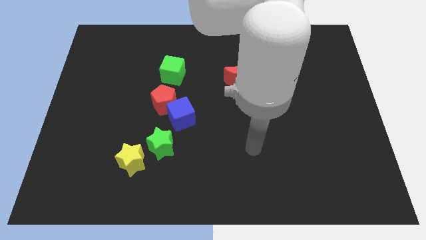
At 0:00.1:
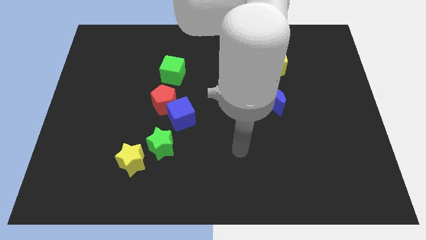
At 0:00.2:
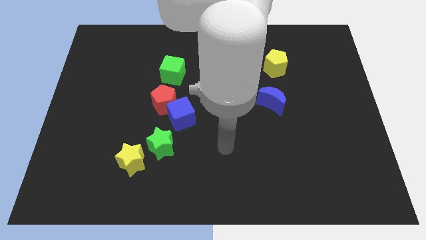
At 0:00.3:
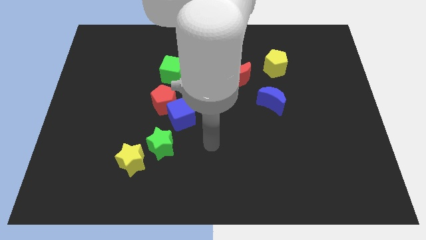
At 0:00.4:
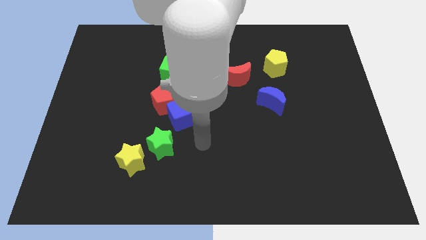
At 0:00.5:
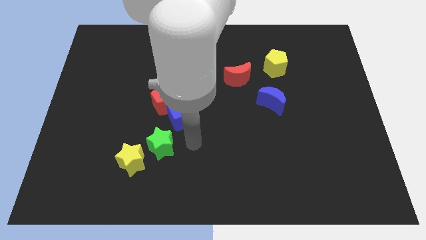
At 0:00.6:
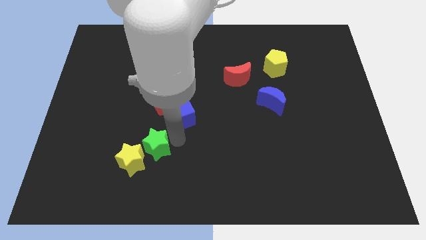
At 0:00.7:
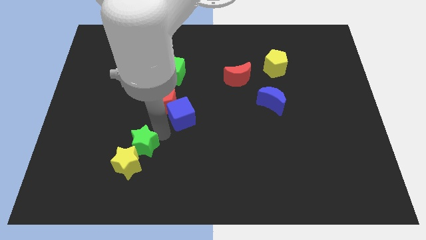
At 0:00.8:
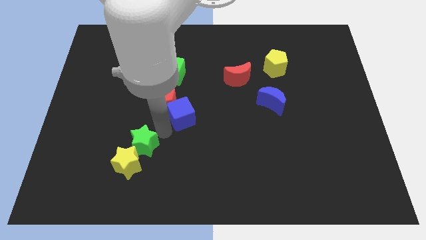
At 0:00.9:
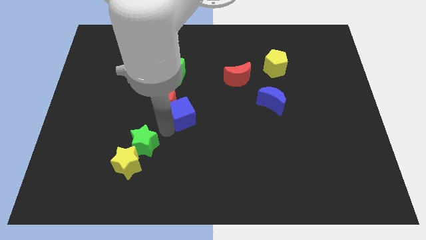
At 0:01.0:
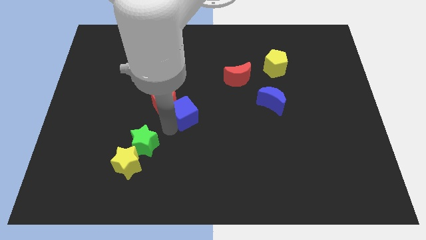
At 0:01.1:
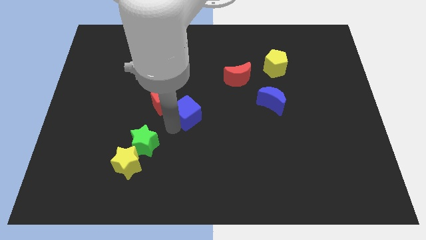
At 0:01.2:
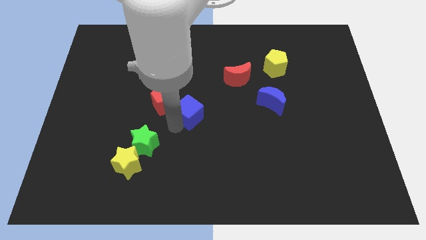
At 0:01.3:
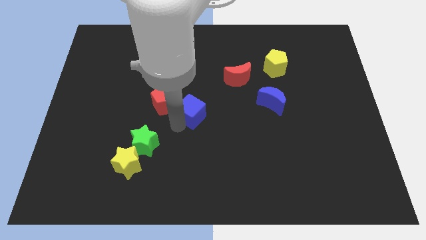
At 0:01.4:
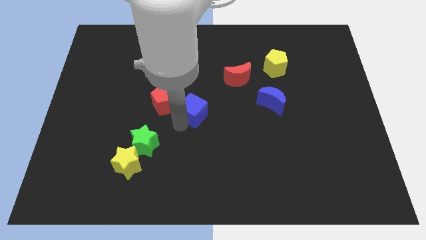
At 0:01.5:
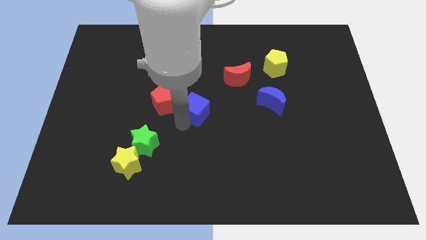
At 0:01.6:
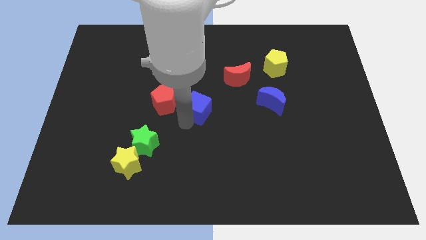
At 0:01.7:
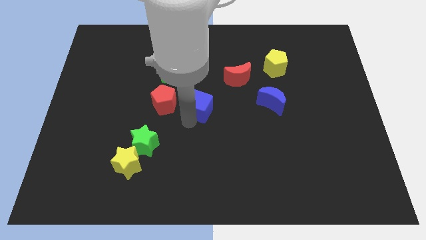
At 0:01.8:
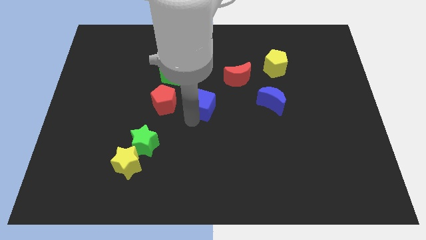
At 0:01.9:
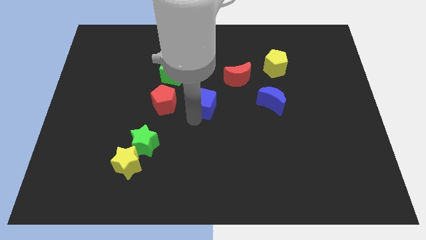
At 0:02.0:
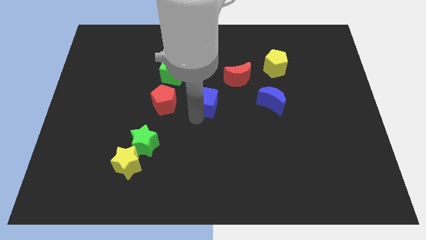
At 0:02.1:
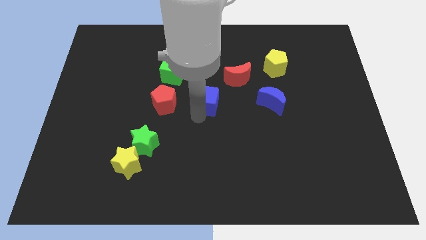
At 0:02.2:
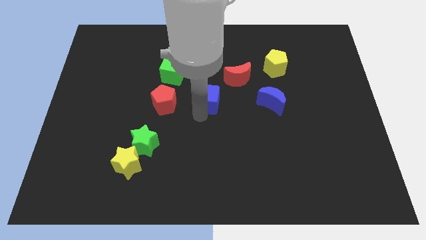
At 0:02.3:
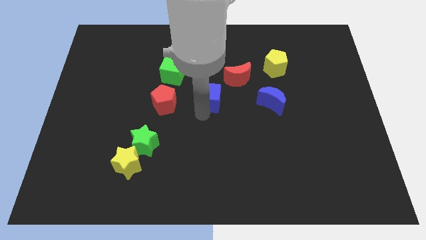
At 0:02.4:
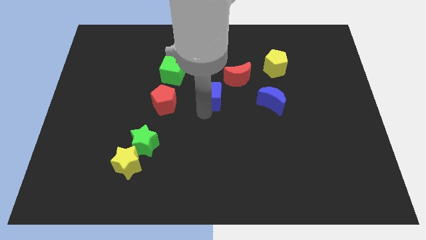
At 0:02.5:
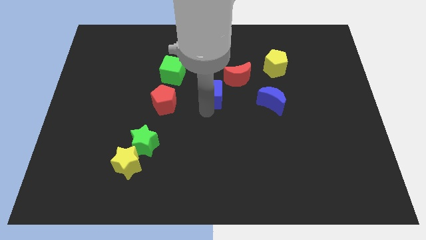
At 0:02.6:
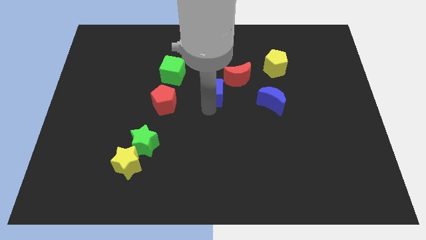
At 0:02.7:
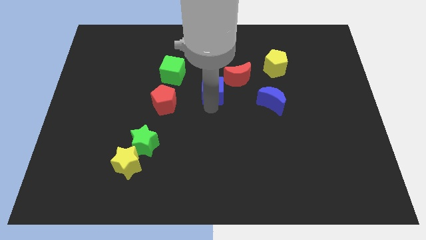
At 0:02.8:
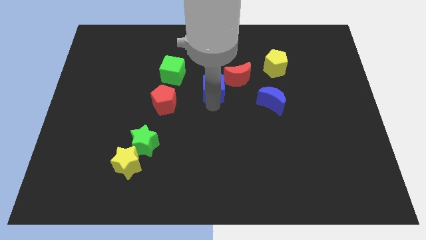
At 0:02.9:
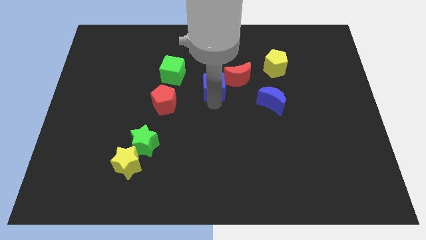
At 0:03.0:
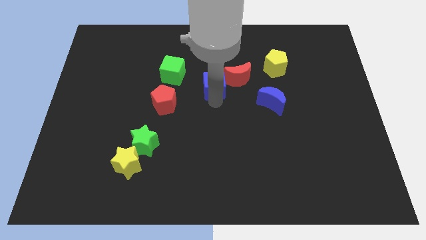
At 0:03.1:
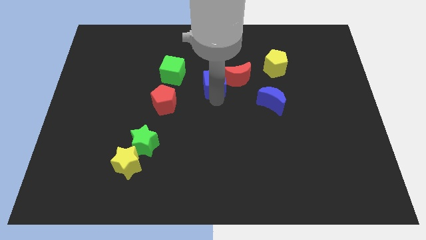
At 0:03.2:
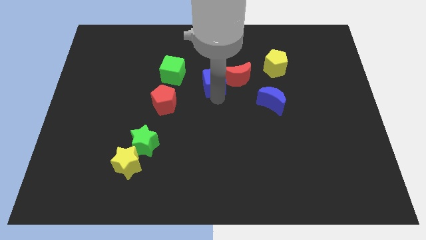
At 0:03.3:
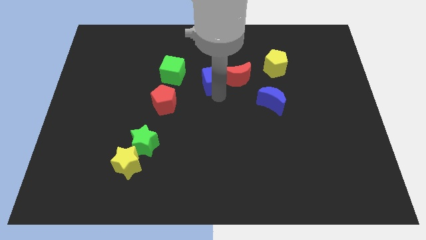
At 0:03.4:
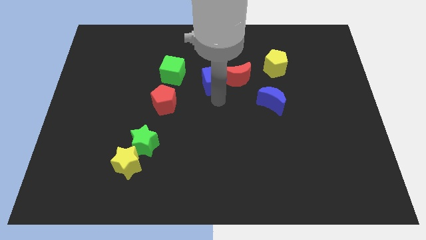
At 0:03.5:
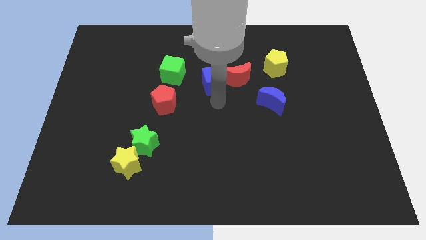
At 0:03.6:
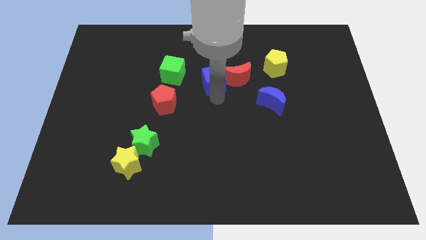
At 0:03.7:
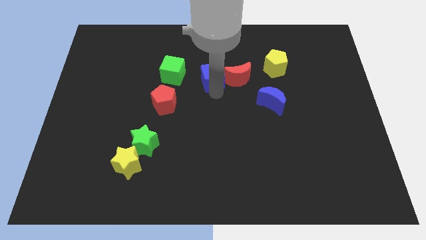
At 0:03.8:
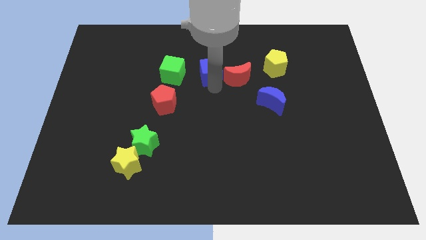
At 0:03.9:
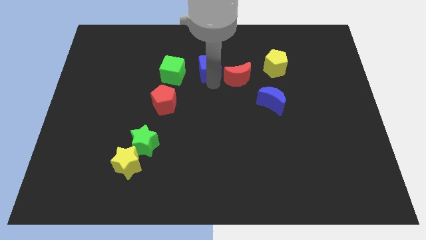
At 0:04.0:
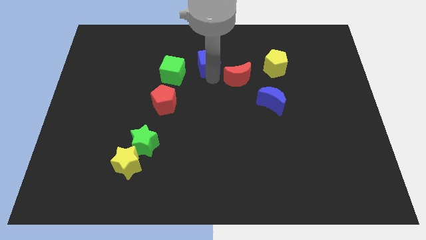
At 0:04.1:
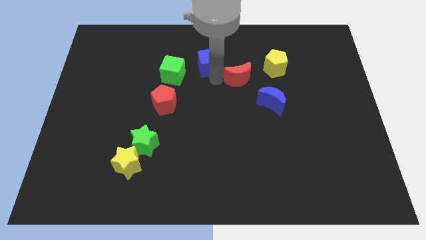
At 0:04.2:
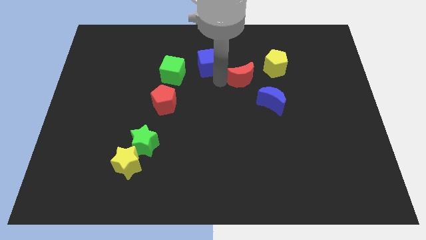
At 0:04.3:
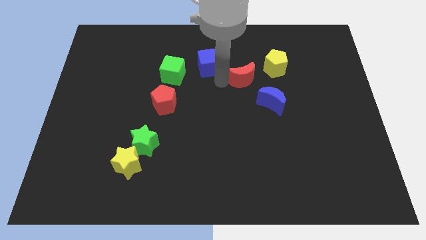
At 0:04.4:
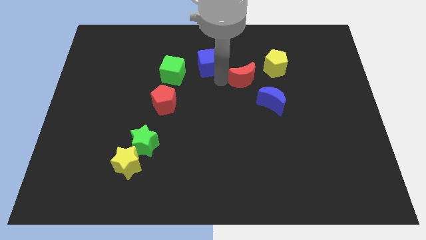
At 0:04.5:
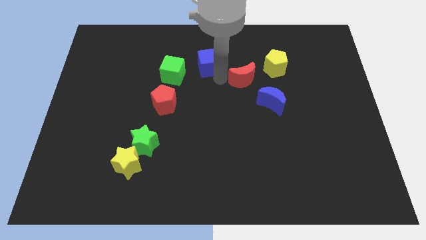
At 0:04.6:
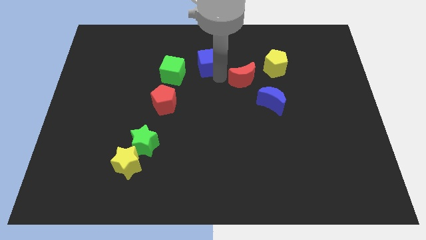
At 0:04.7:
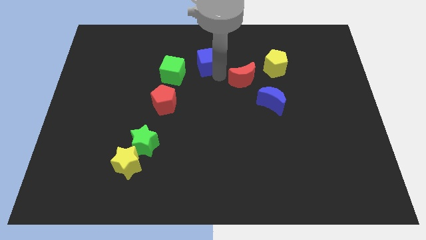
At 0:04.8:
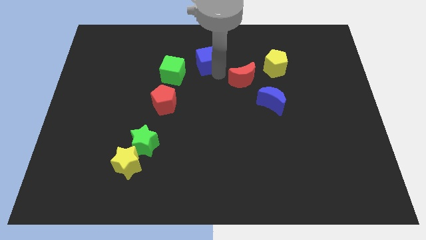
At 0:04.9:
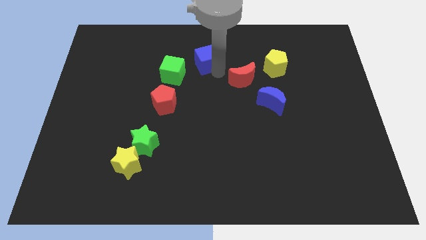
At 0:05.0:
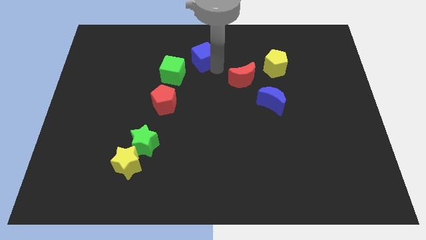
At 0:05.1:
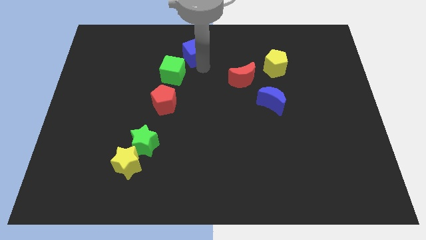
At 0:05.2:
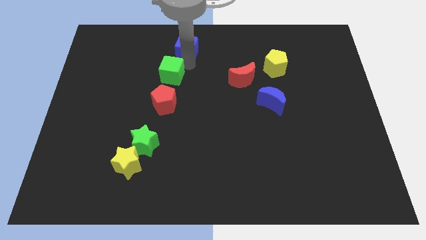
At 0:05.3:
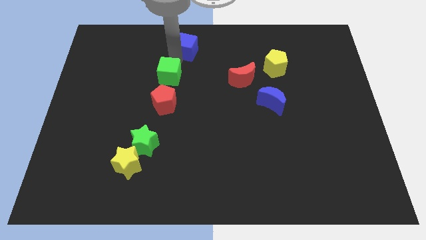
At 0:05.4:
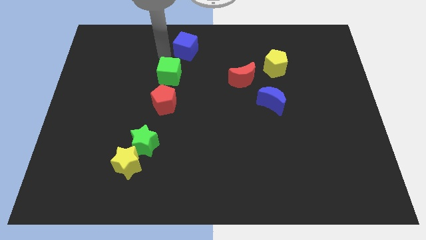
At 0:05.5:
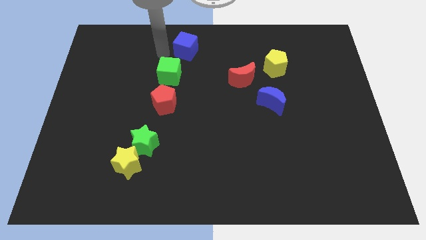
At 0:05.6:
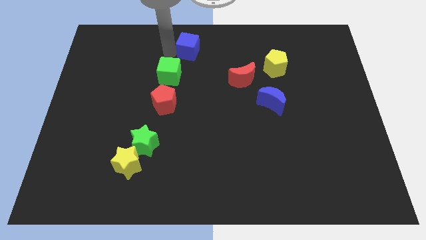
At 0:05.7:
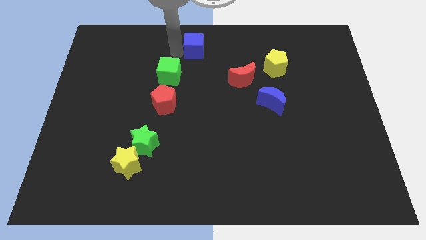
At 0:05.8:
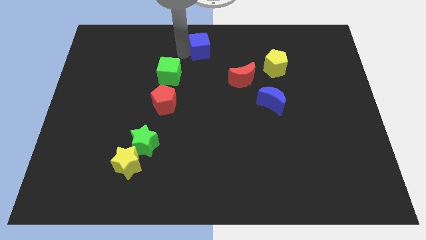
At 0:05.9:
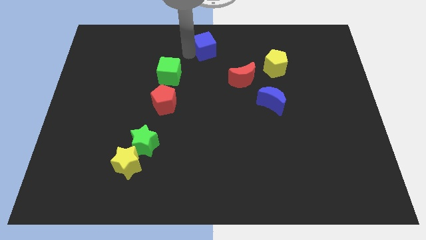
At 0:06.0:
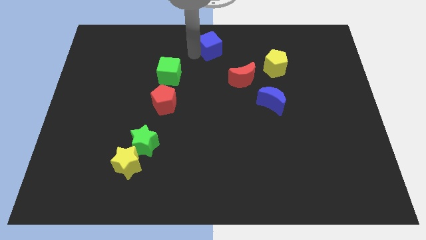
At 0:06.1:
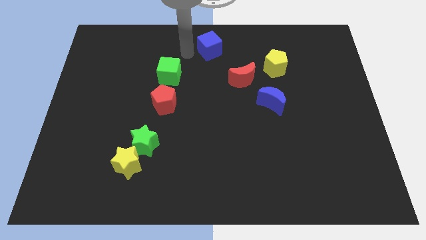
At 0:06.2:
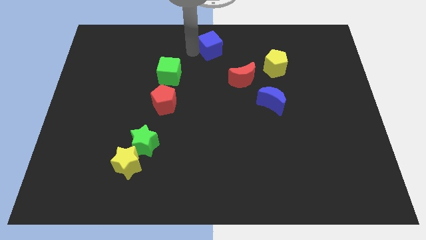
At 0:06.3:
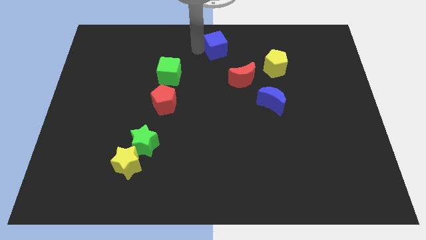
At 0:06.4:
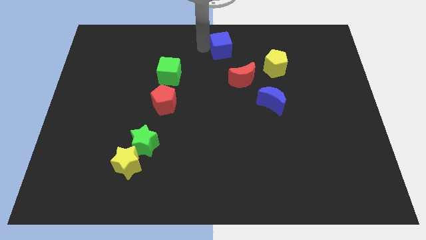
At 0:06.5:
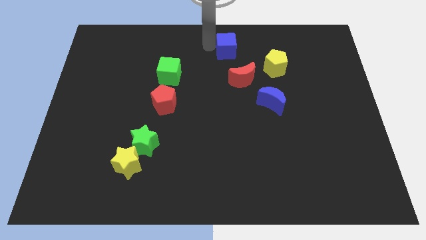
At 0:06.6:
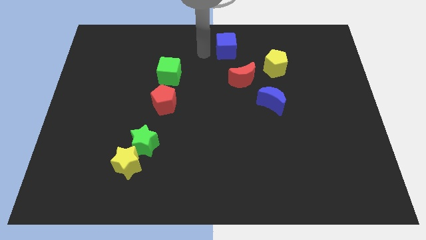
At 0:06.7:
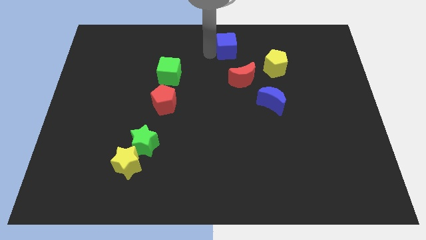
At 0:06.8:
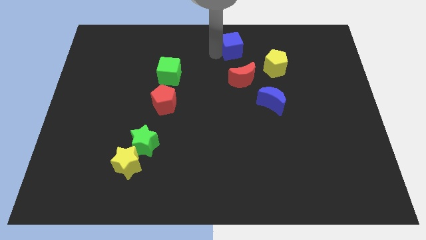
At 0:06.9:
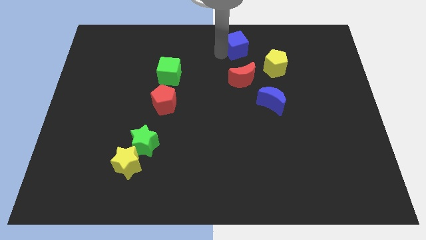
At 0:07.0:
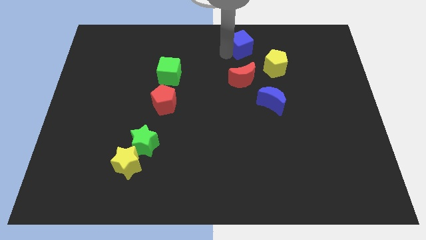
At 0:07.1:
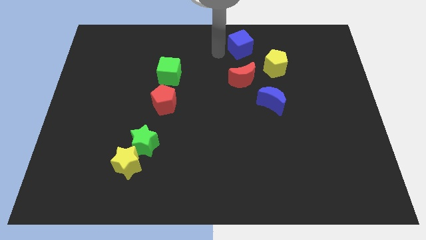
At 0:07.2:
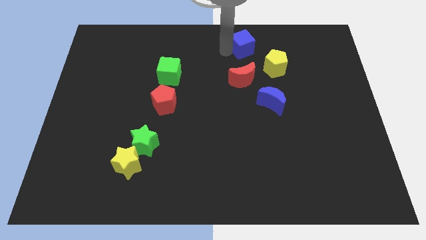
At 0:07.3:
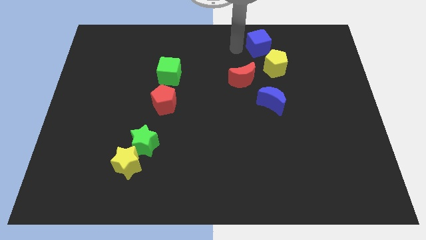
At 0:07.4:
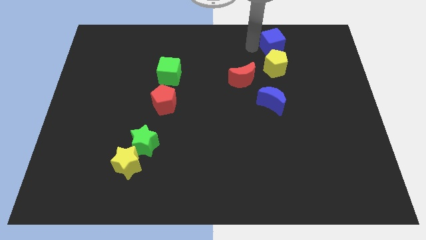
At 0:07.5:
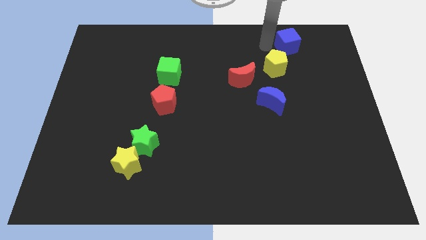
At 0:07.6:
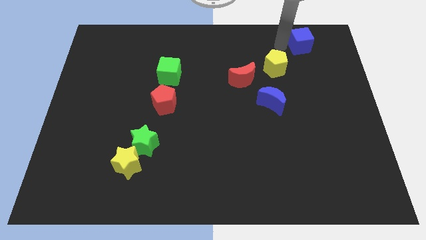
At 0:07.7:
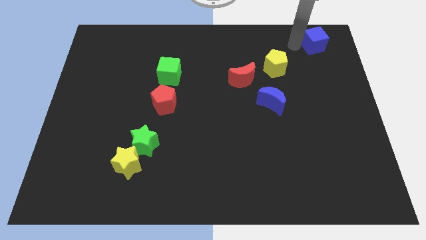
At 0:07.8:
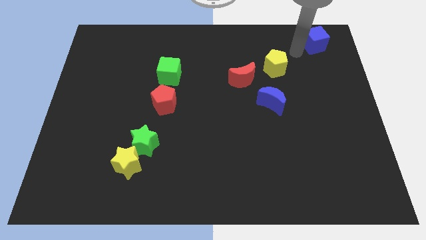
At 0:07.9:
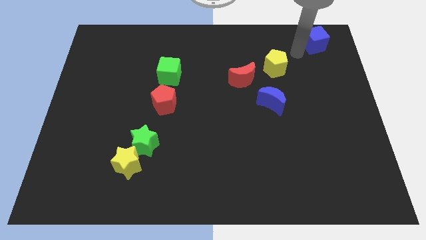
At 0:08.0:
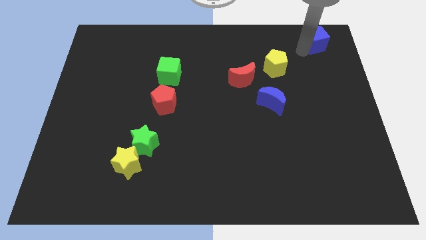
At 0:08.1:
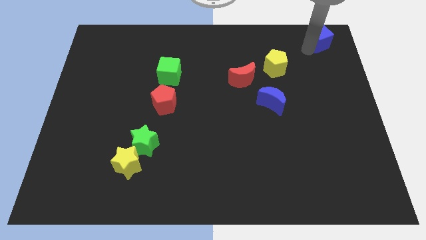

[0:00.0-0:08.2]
put the blue cube to the top right corner
